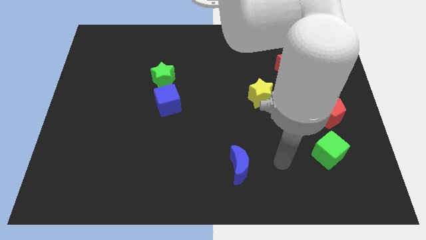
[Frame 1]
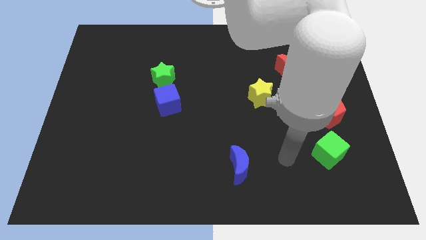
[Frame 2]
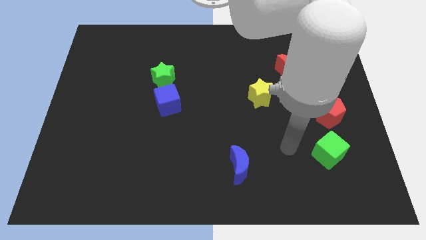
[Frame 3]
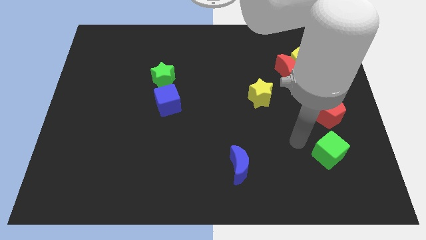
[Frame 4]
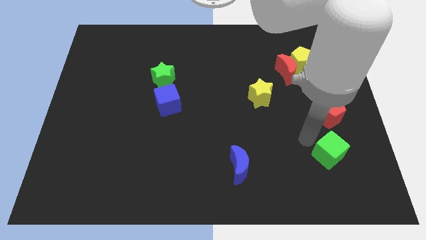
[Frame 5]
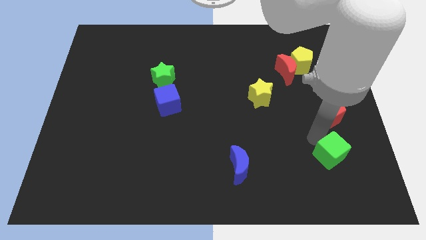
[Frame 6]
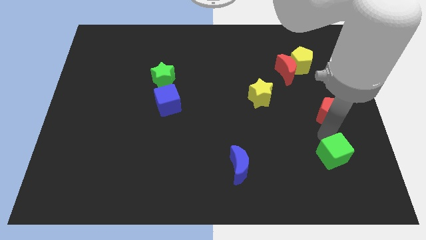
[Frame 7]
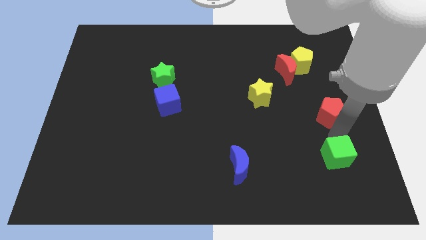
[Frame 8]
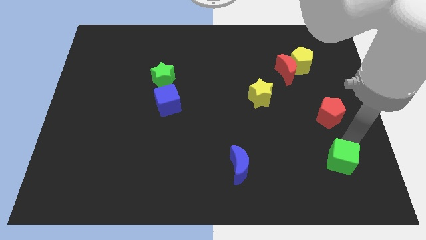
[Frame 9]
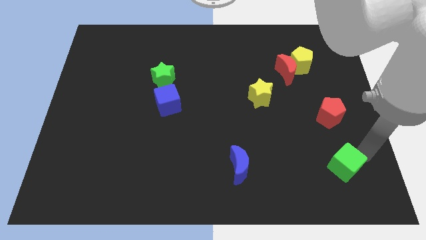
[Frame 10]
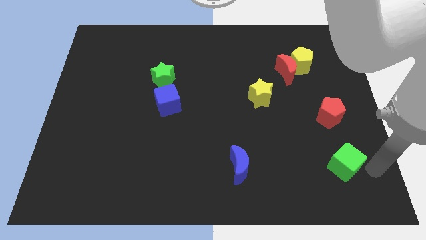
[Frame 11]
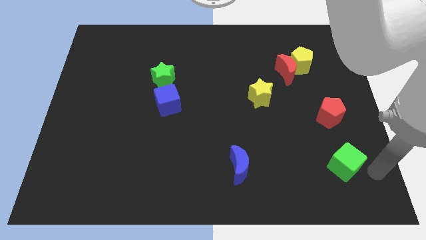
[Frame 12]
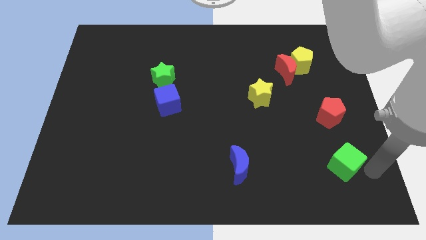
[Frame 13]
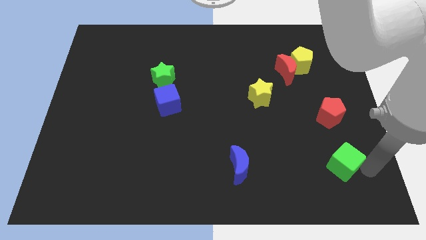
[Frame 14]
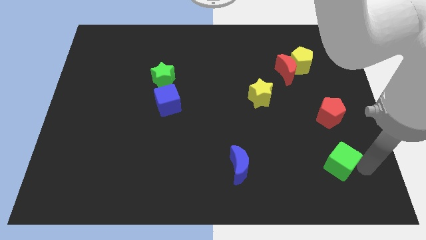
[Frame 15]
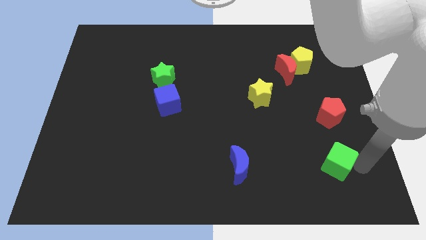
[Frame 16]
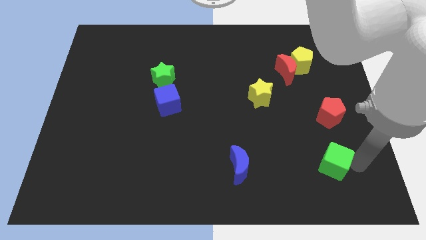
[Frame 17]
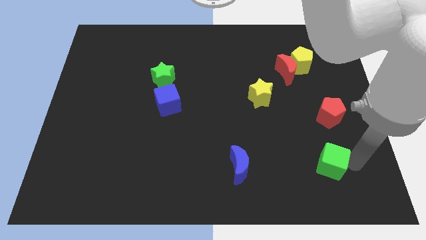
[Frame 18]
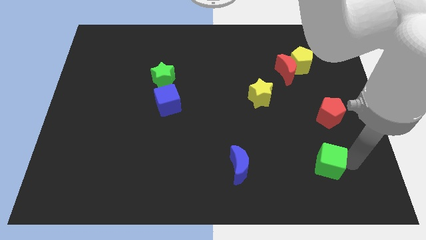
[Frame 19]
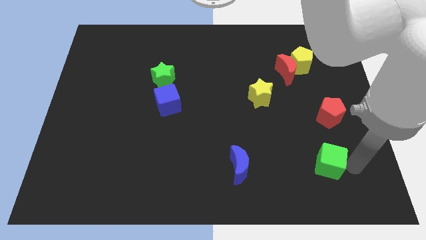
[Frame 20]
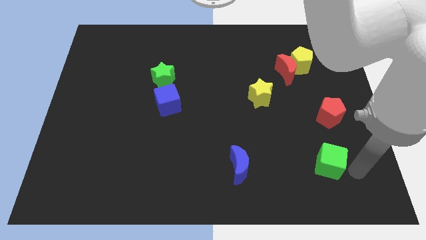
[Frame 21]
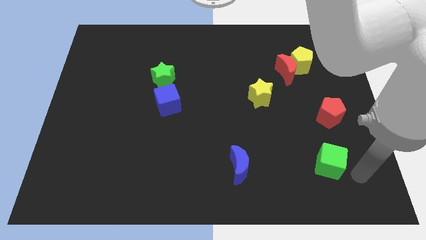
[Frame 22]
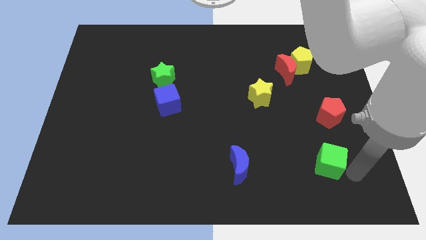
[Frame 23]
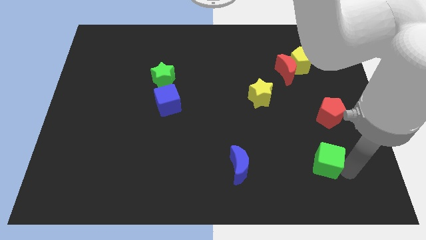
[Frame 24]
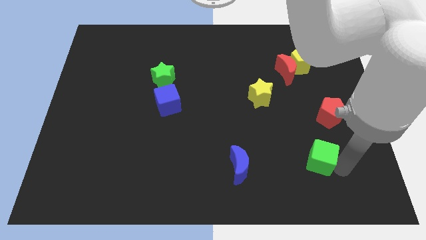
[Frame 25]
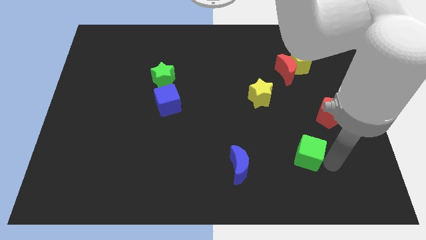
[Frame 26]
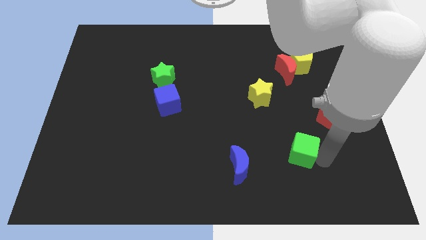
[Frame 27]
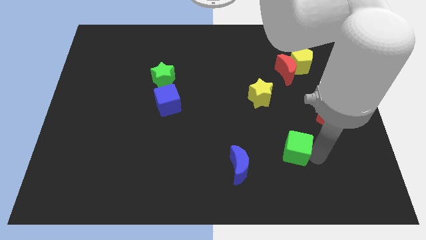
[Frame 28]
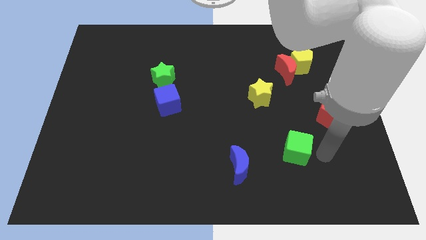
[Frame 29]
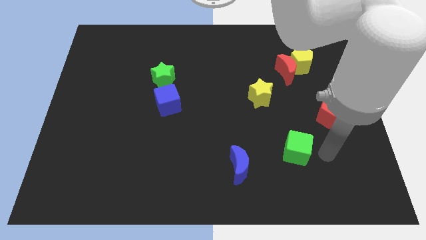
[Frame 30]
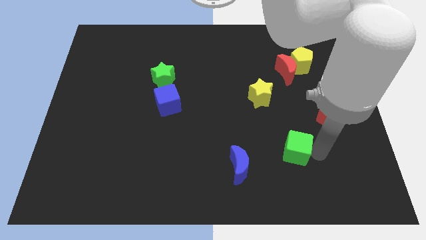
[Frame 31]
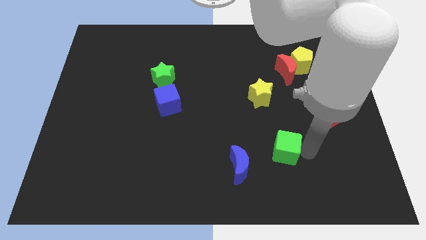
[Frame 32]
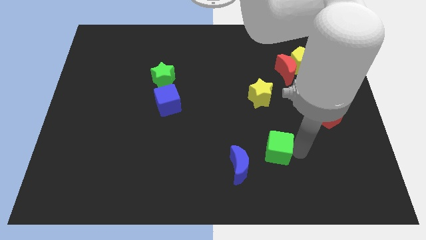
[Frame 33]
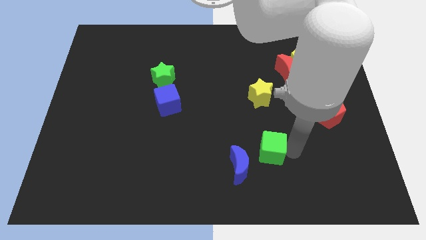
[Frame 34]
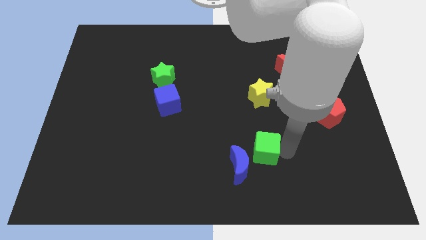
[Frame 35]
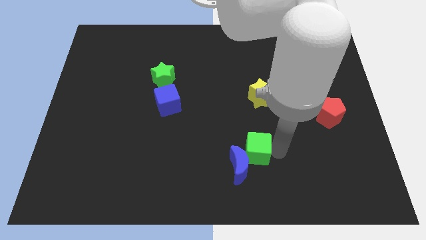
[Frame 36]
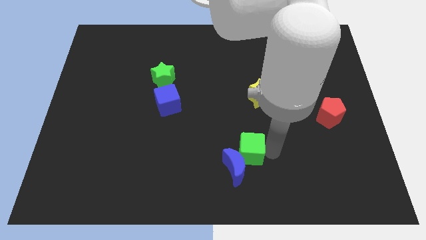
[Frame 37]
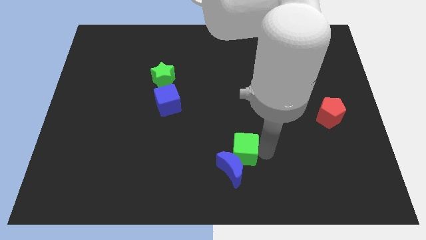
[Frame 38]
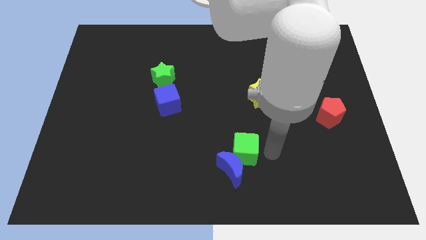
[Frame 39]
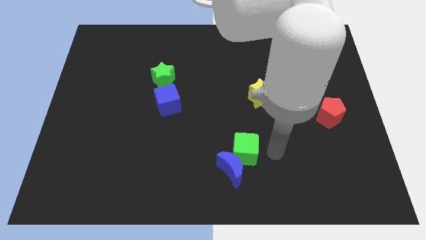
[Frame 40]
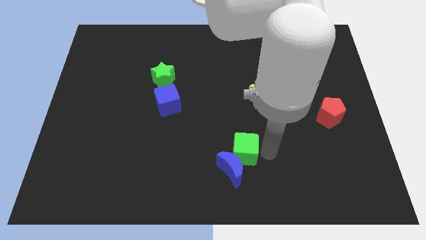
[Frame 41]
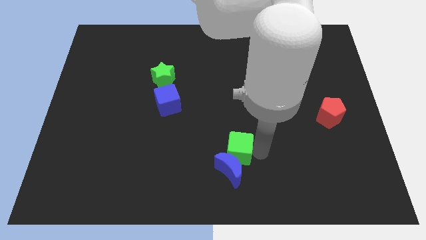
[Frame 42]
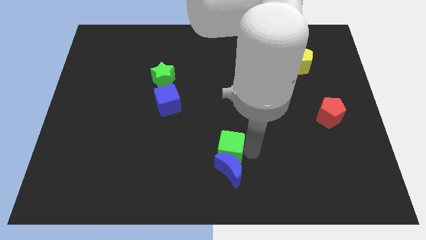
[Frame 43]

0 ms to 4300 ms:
move the green cube left

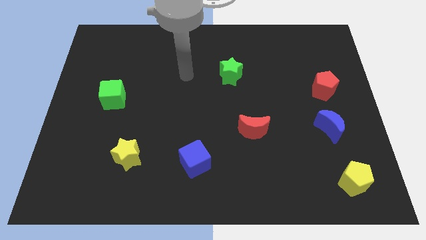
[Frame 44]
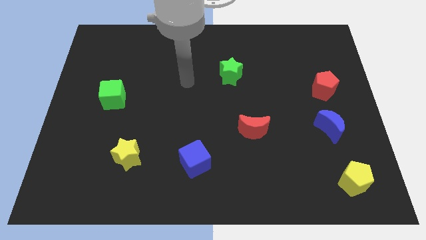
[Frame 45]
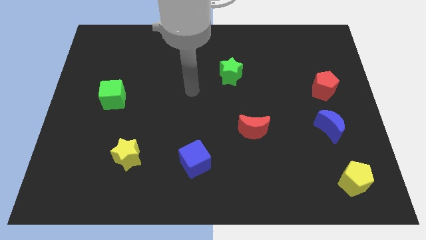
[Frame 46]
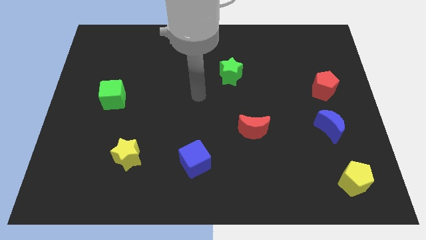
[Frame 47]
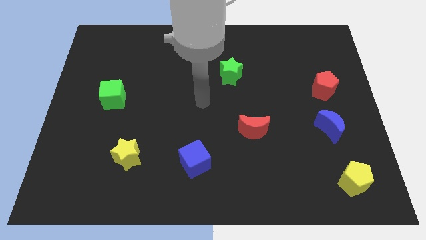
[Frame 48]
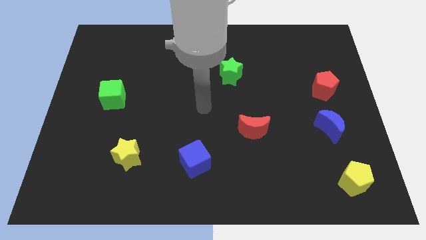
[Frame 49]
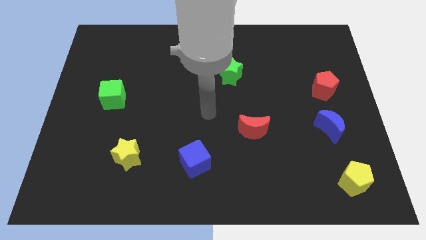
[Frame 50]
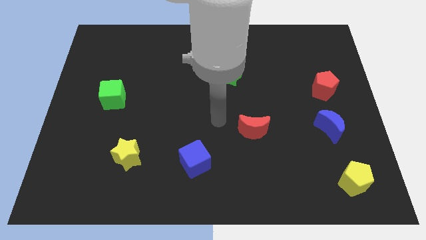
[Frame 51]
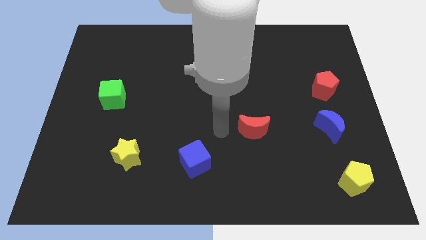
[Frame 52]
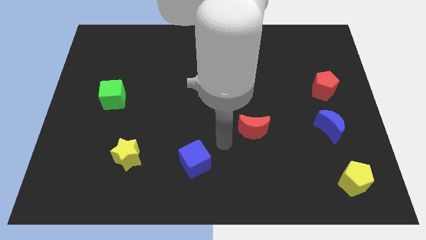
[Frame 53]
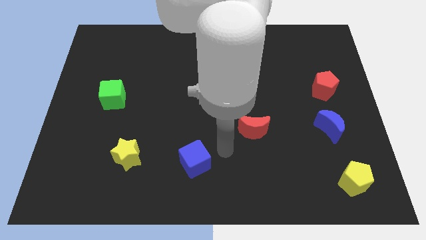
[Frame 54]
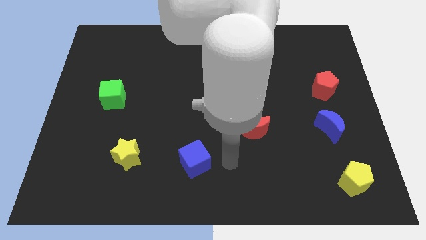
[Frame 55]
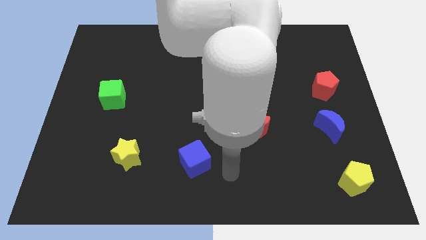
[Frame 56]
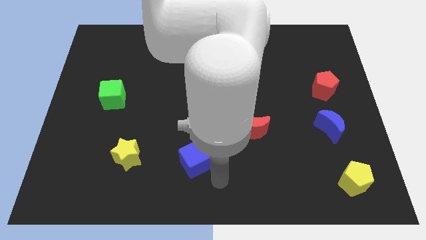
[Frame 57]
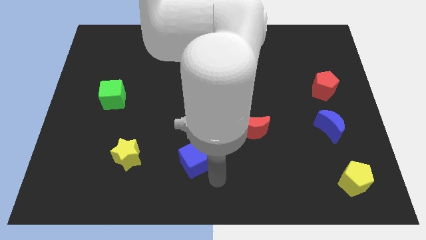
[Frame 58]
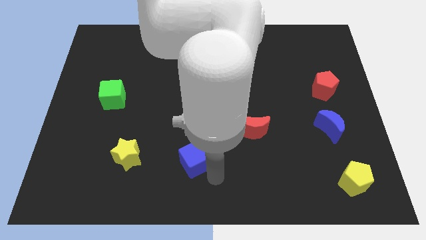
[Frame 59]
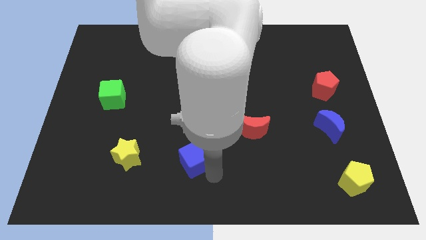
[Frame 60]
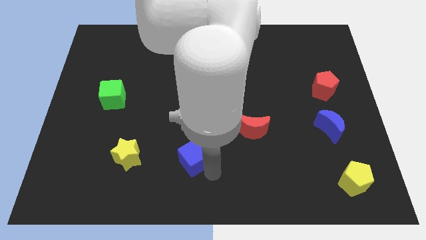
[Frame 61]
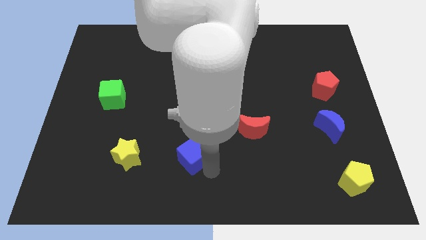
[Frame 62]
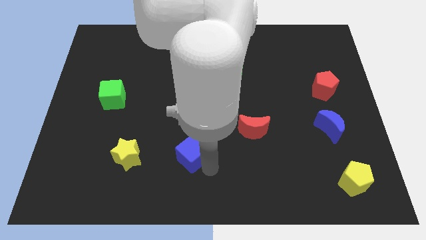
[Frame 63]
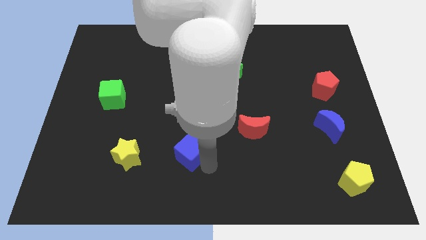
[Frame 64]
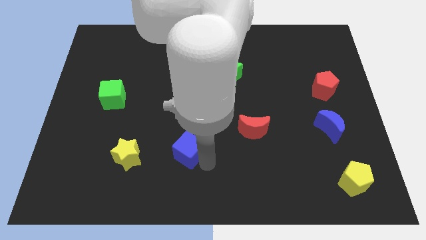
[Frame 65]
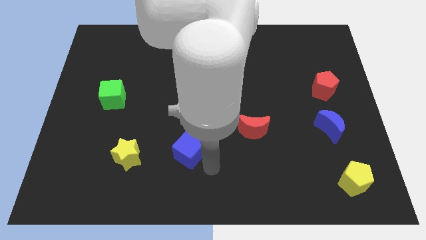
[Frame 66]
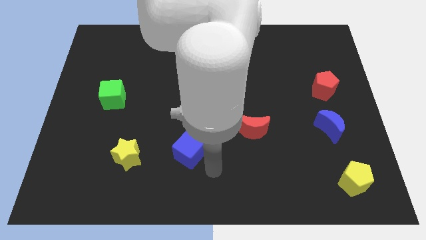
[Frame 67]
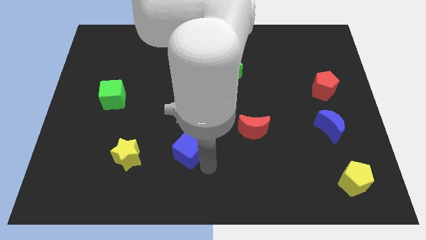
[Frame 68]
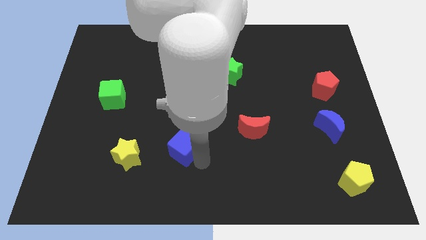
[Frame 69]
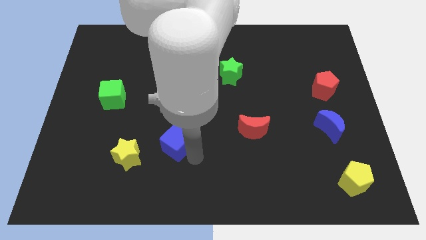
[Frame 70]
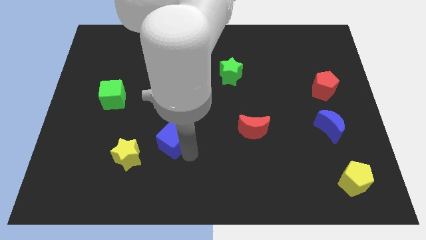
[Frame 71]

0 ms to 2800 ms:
slide the blue cube diagonally upwards and to the left slightly

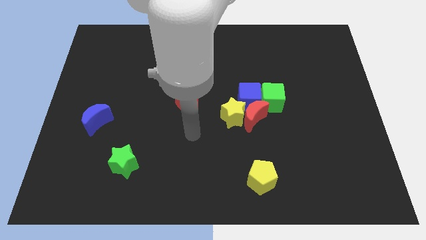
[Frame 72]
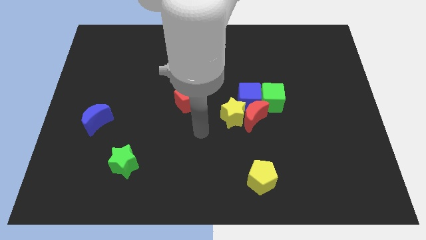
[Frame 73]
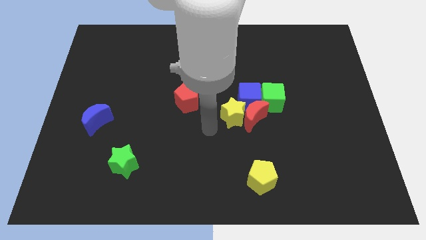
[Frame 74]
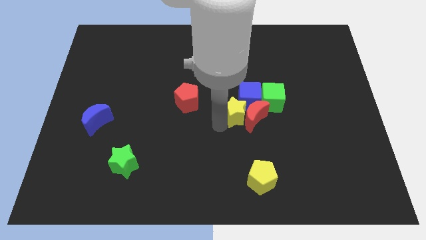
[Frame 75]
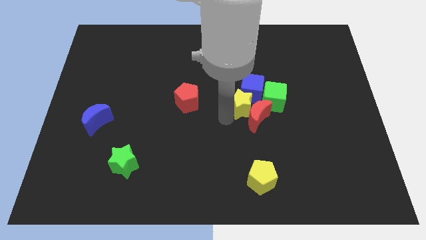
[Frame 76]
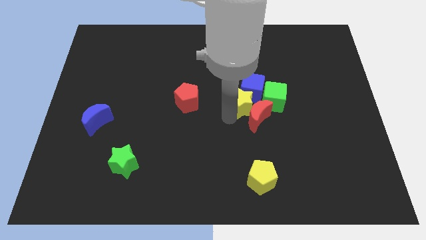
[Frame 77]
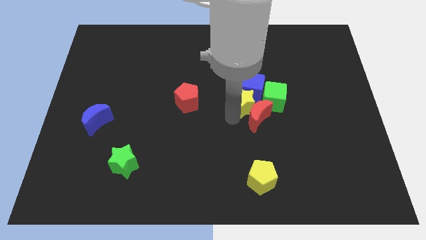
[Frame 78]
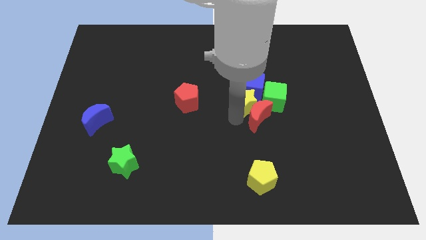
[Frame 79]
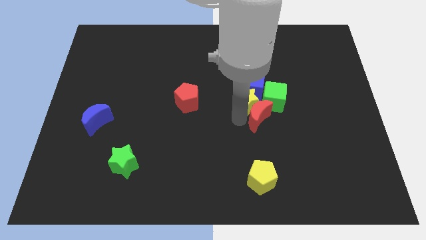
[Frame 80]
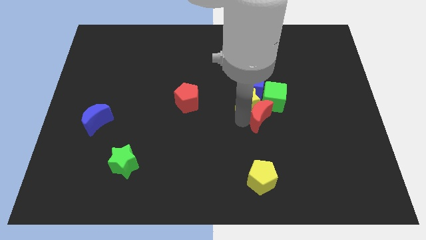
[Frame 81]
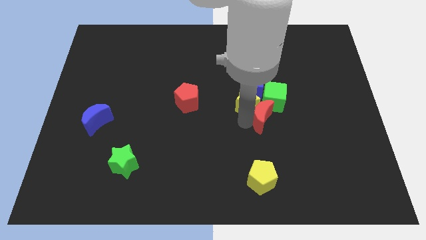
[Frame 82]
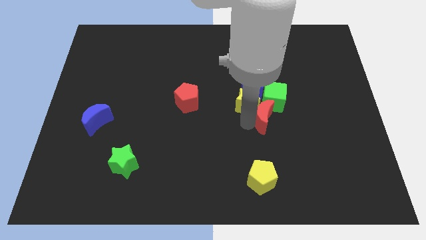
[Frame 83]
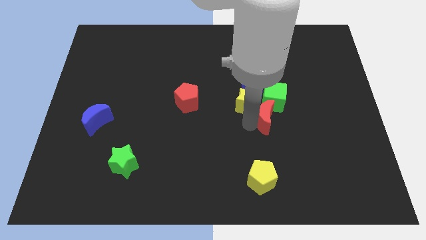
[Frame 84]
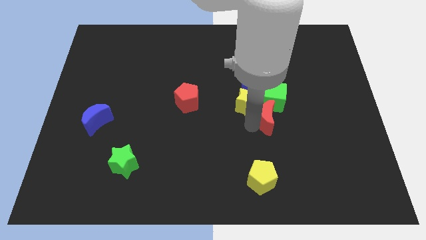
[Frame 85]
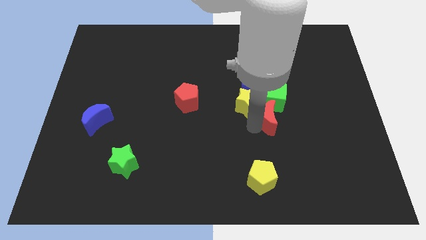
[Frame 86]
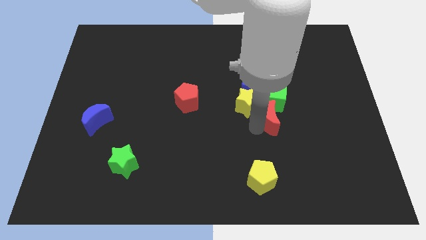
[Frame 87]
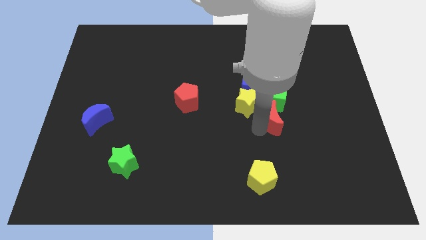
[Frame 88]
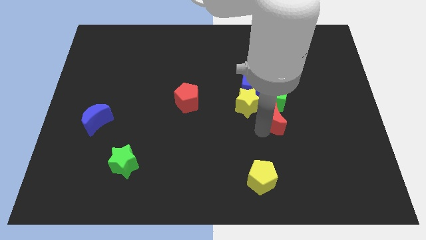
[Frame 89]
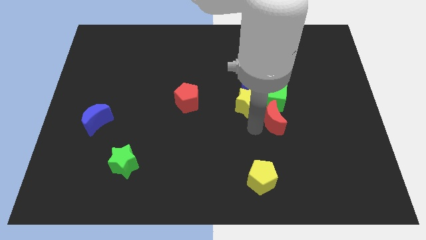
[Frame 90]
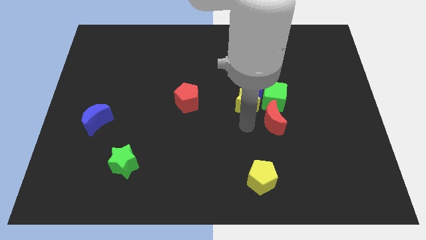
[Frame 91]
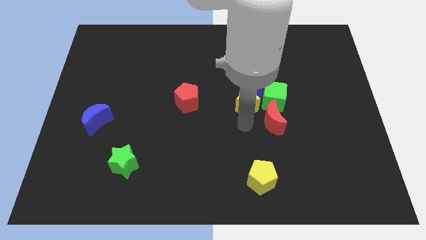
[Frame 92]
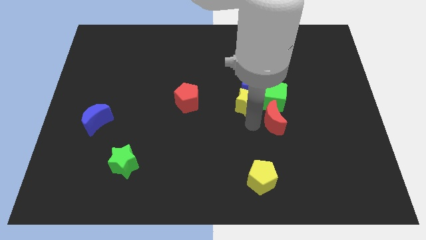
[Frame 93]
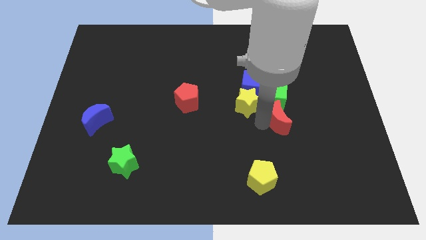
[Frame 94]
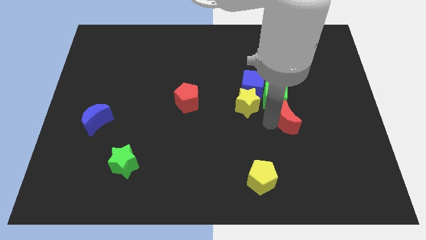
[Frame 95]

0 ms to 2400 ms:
slide the red moon a bit to the right
